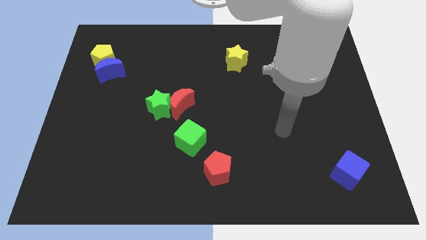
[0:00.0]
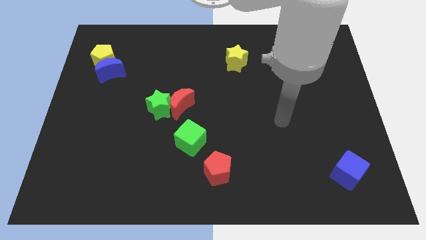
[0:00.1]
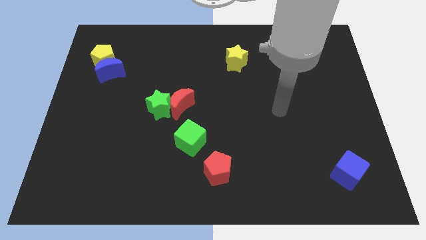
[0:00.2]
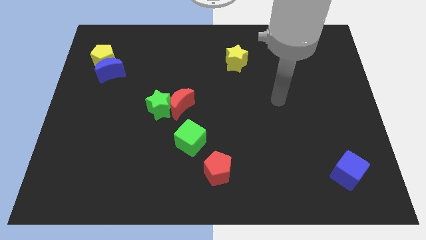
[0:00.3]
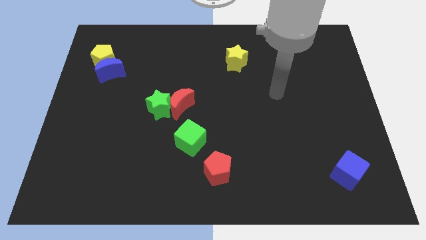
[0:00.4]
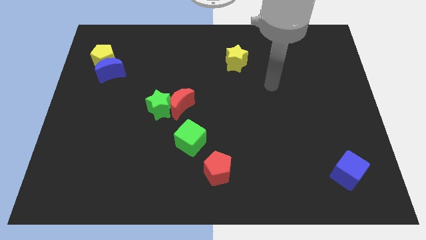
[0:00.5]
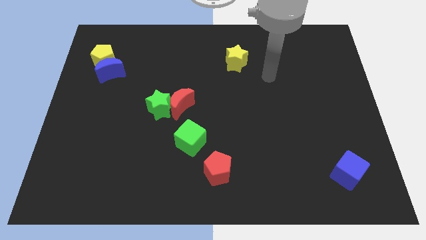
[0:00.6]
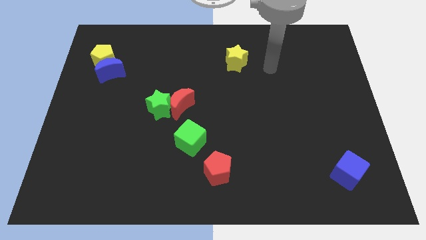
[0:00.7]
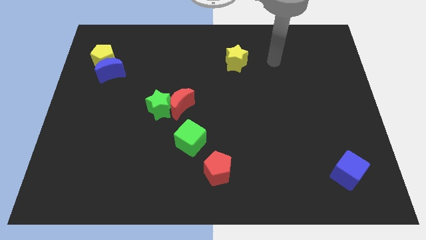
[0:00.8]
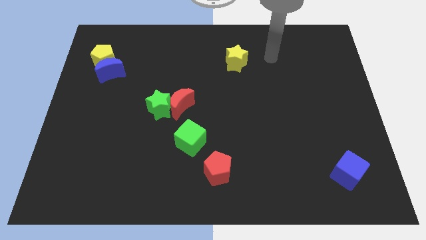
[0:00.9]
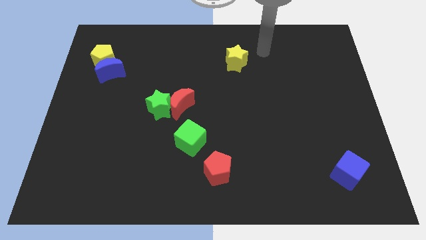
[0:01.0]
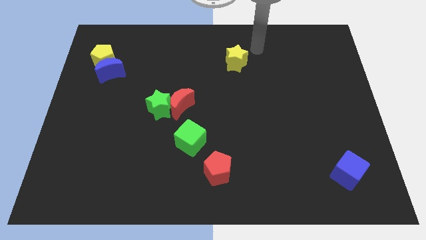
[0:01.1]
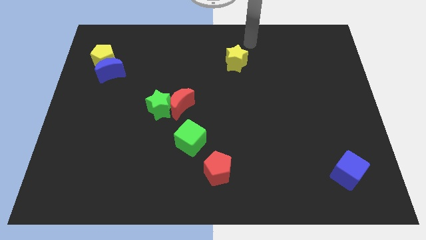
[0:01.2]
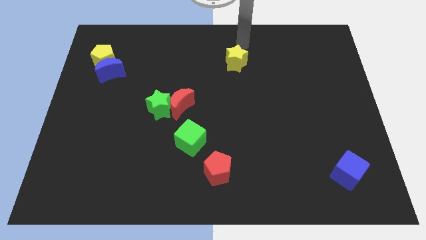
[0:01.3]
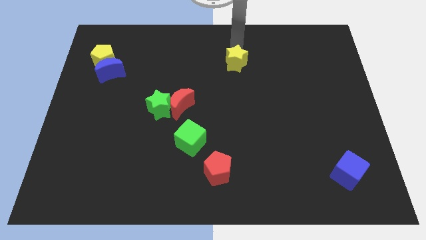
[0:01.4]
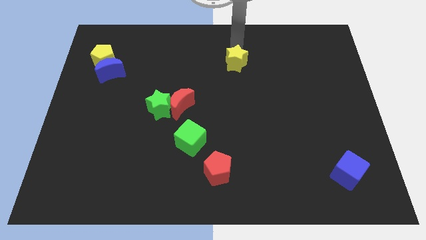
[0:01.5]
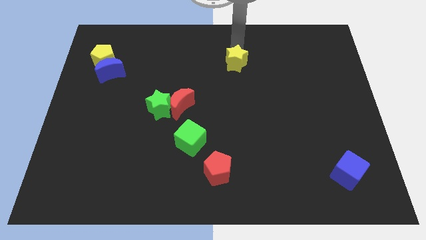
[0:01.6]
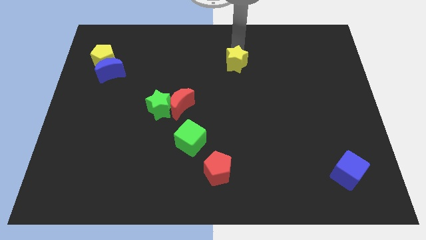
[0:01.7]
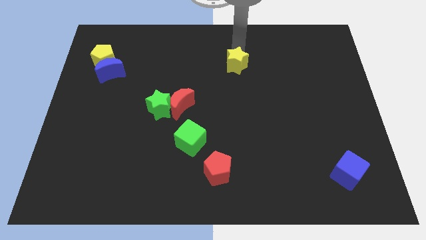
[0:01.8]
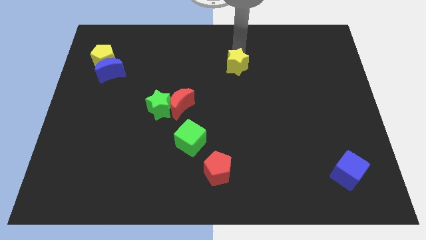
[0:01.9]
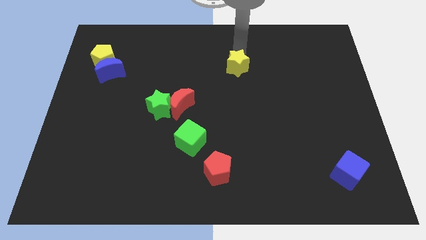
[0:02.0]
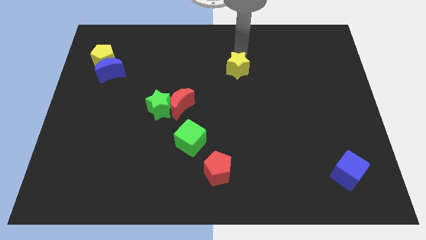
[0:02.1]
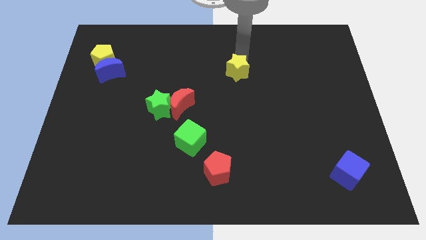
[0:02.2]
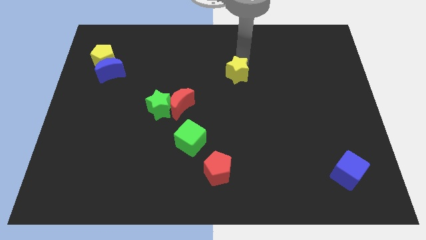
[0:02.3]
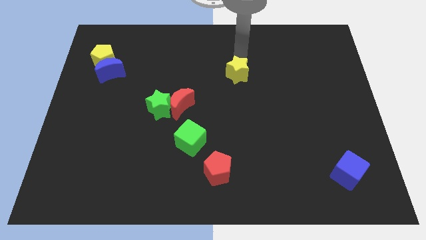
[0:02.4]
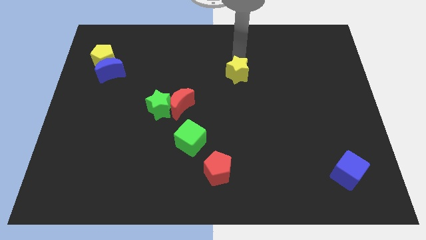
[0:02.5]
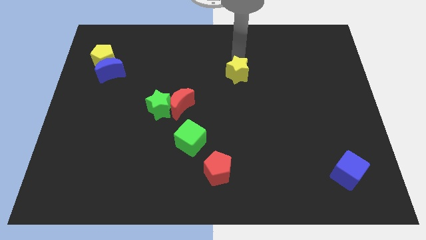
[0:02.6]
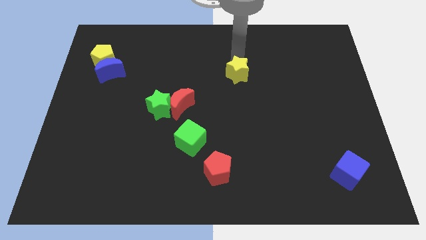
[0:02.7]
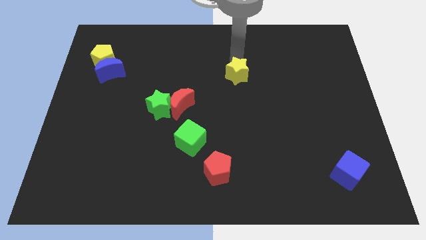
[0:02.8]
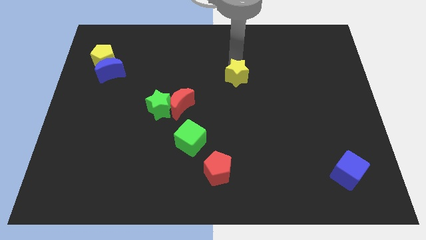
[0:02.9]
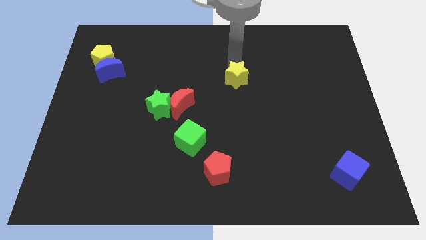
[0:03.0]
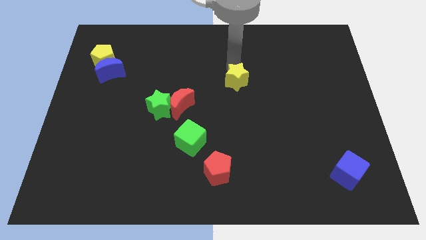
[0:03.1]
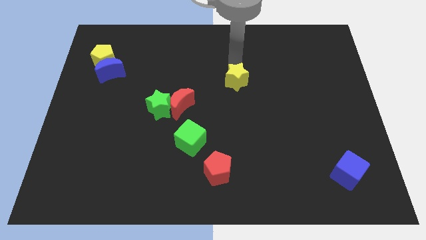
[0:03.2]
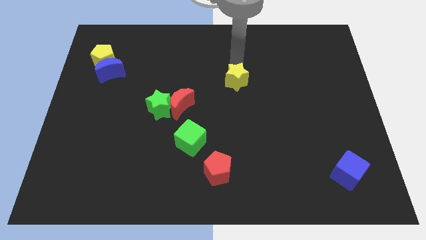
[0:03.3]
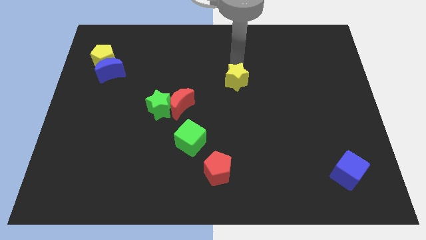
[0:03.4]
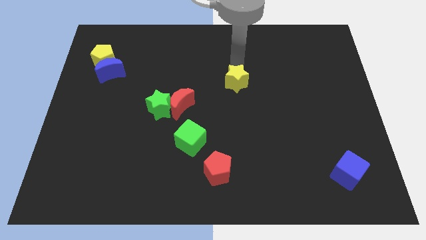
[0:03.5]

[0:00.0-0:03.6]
slide the yellow star downwards a little bit

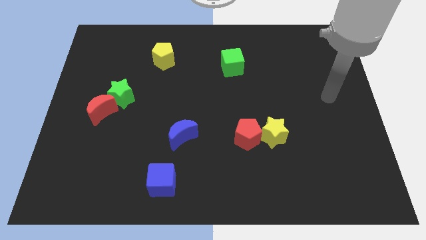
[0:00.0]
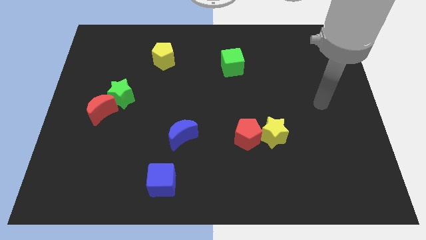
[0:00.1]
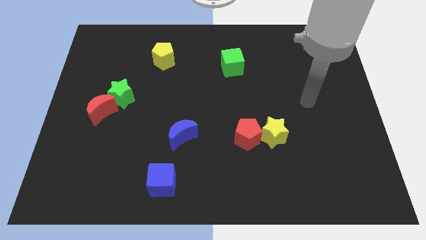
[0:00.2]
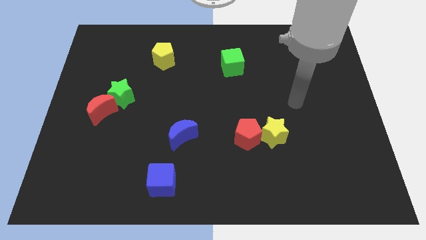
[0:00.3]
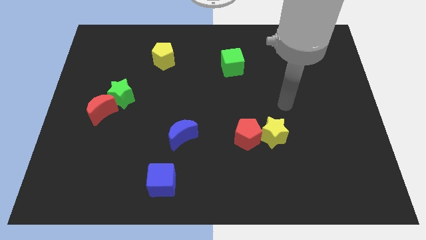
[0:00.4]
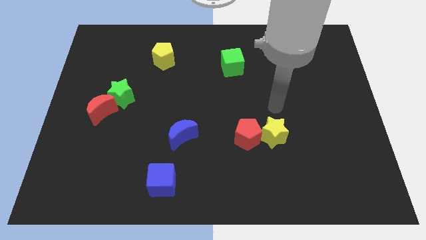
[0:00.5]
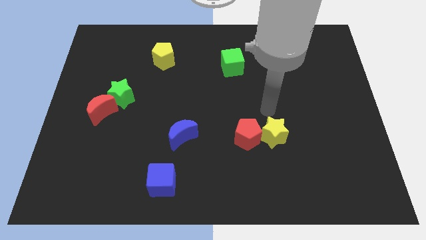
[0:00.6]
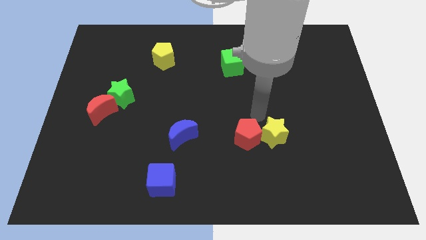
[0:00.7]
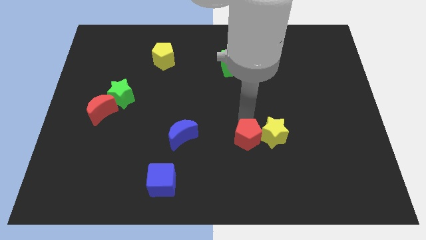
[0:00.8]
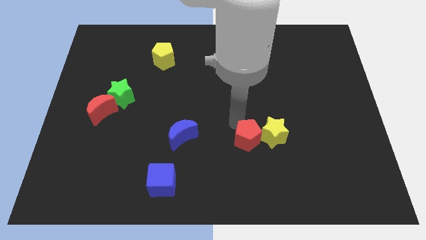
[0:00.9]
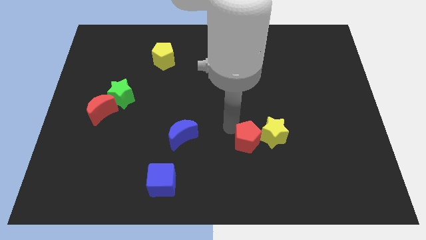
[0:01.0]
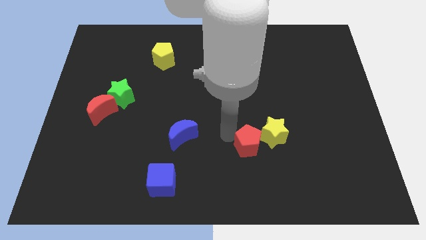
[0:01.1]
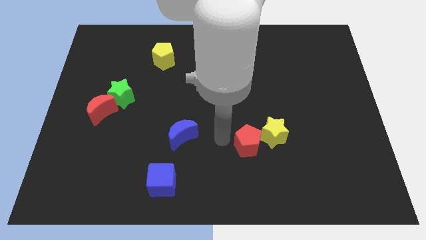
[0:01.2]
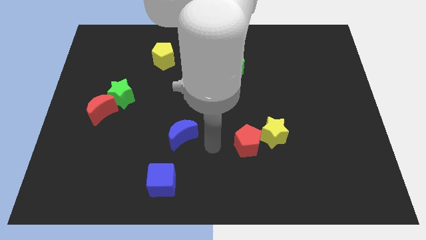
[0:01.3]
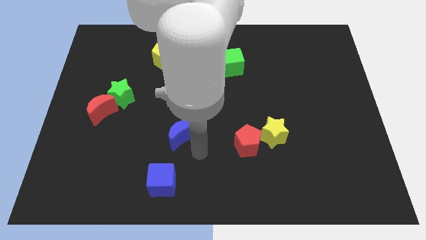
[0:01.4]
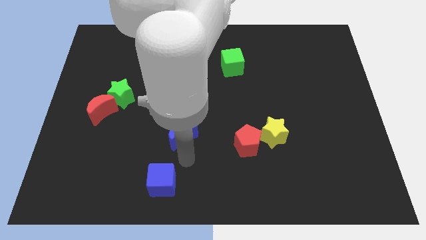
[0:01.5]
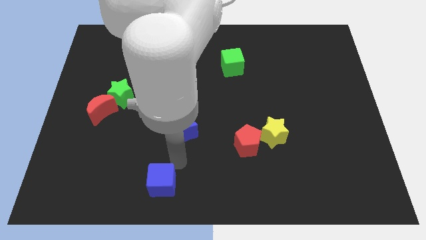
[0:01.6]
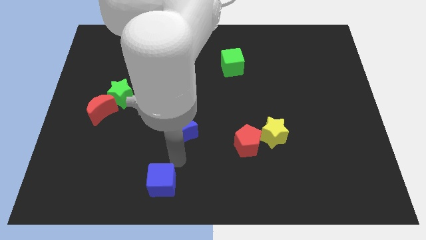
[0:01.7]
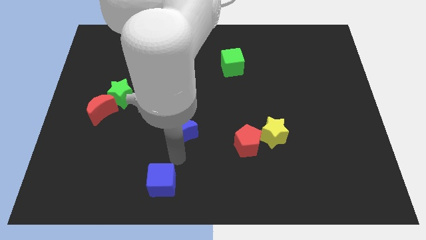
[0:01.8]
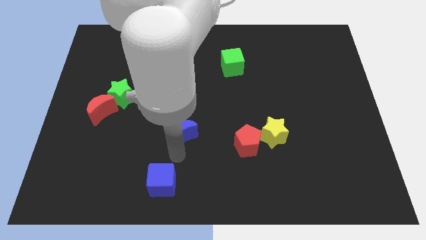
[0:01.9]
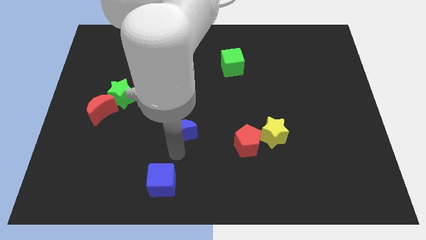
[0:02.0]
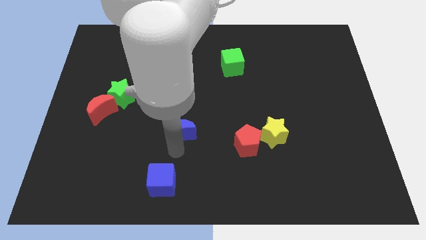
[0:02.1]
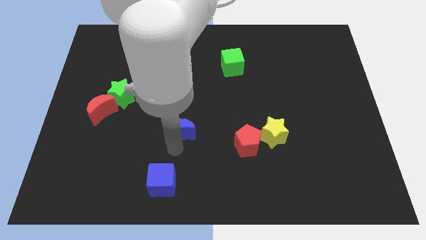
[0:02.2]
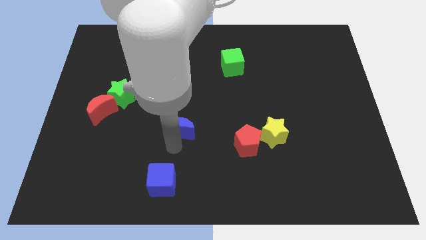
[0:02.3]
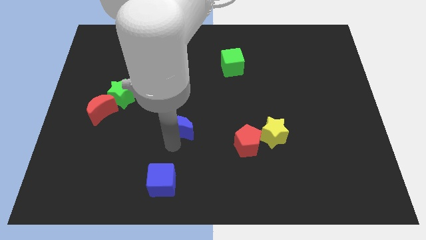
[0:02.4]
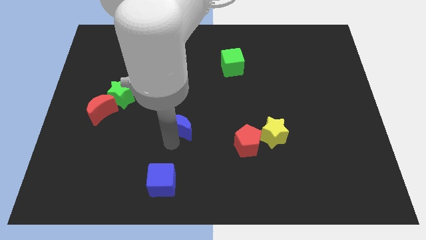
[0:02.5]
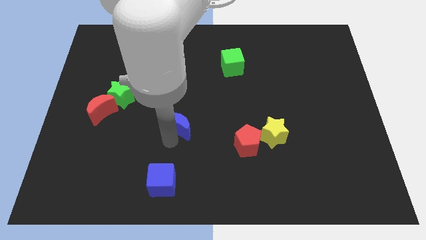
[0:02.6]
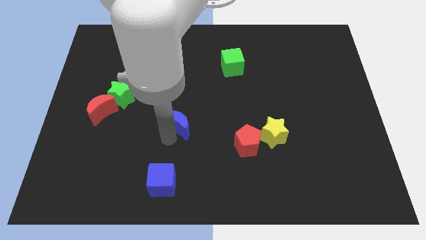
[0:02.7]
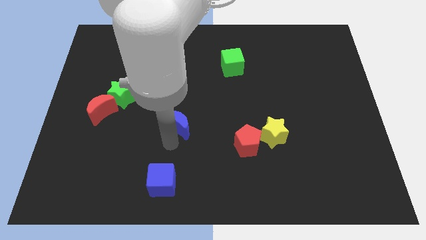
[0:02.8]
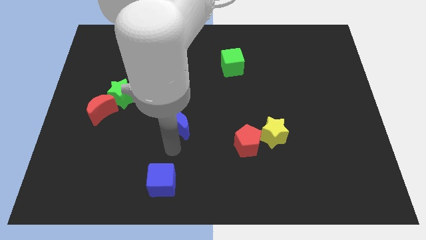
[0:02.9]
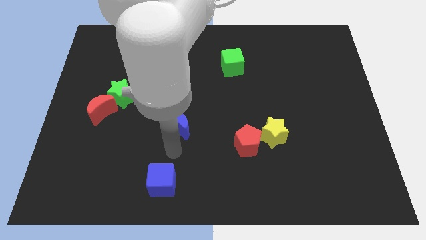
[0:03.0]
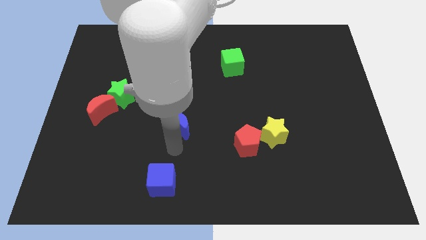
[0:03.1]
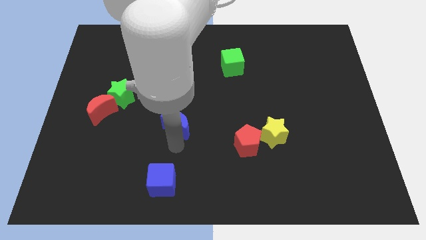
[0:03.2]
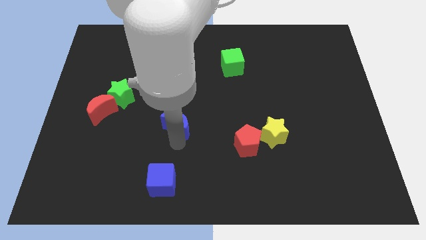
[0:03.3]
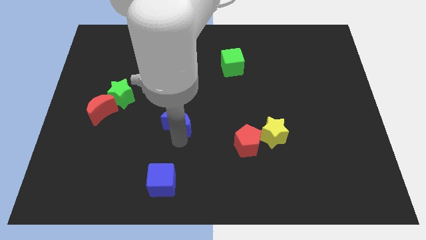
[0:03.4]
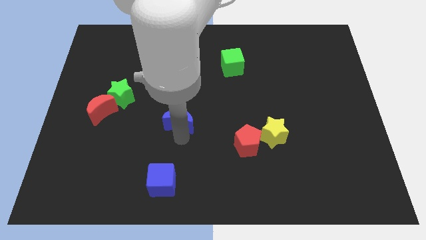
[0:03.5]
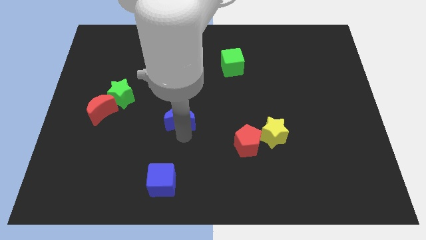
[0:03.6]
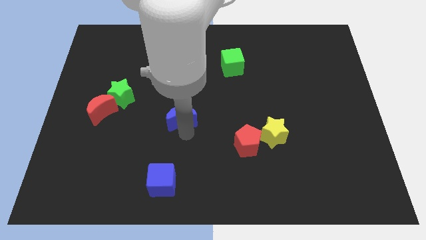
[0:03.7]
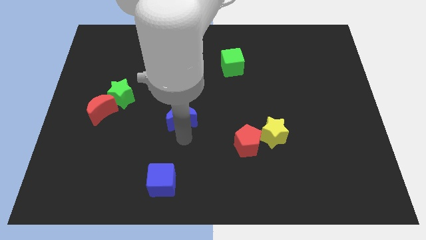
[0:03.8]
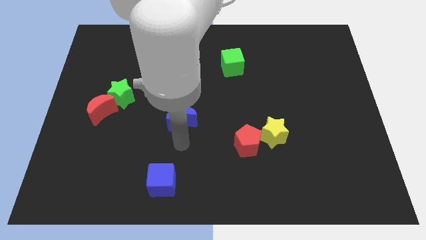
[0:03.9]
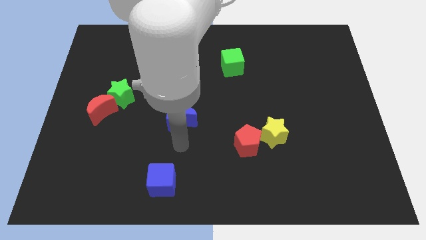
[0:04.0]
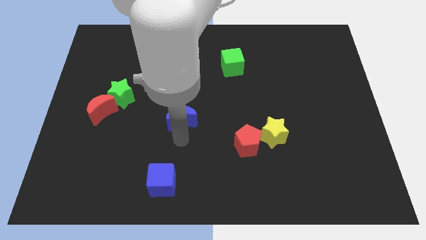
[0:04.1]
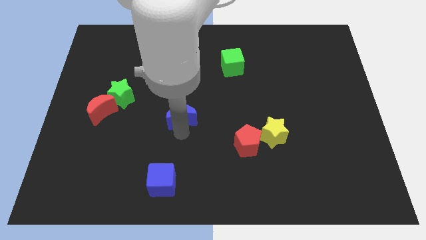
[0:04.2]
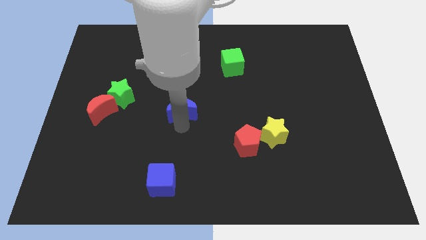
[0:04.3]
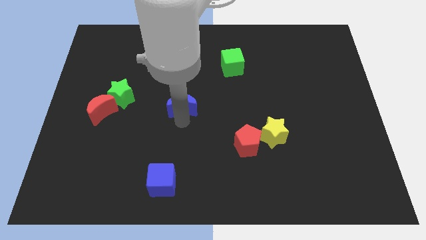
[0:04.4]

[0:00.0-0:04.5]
move the blue moon slightly up

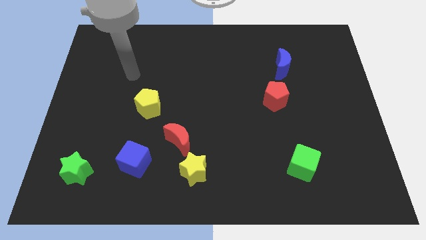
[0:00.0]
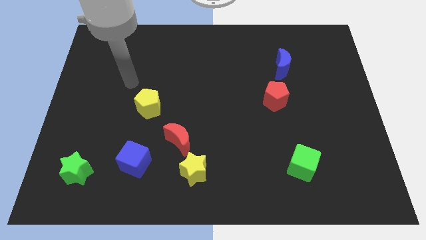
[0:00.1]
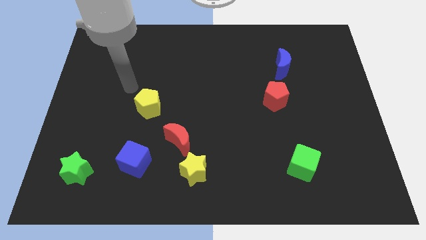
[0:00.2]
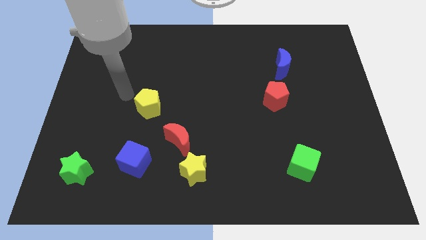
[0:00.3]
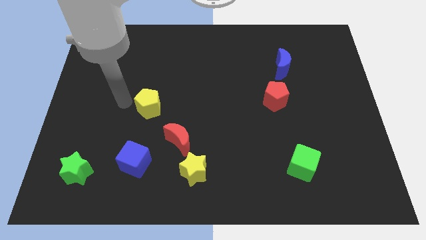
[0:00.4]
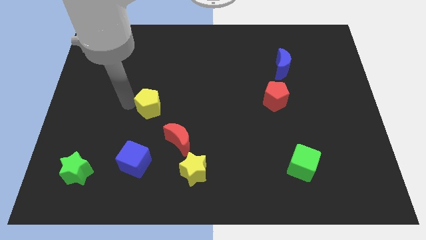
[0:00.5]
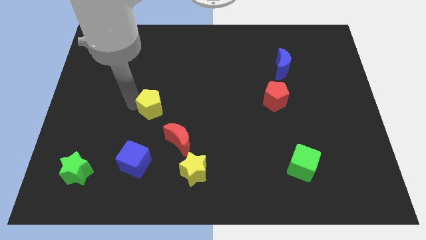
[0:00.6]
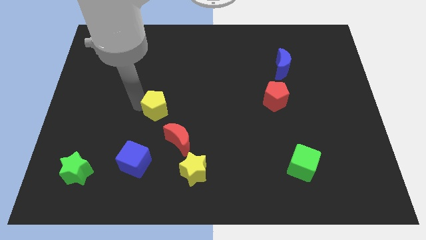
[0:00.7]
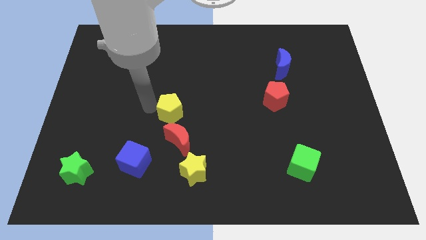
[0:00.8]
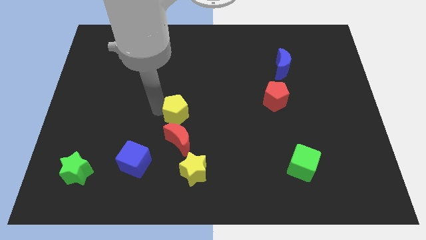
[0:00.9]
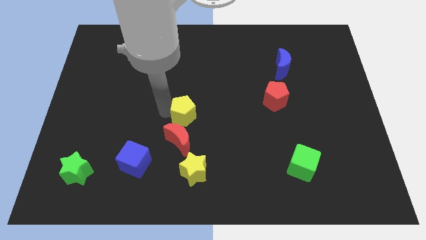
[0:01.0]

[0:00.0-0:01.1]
slightly slide the yellow pentagon to the right
